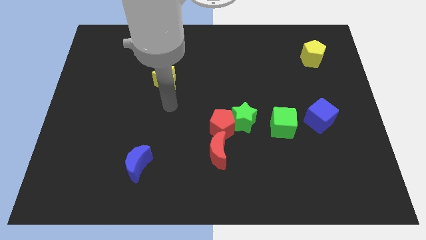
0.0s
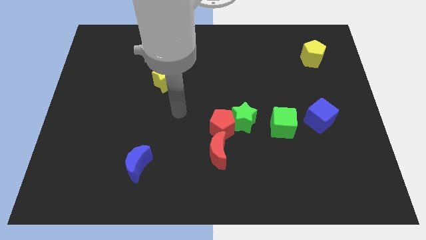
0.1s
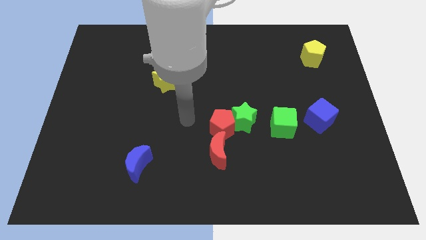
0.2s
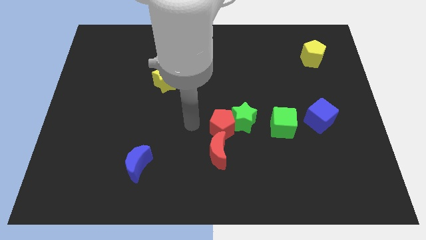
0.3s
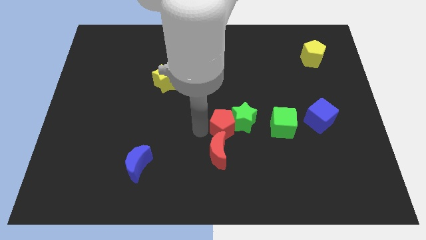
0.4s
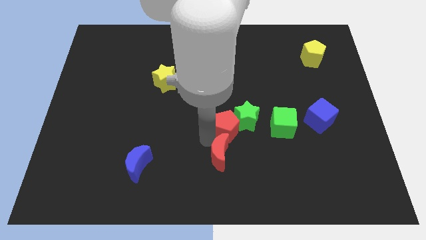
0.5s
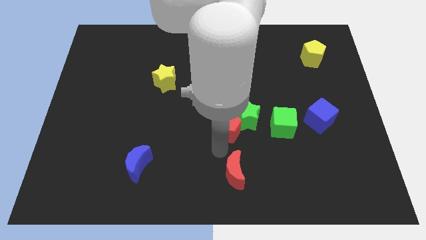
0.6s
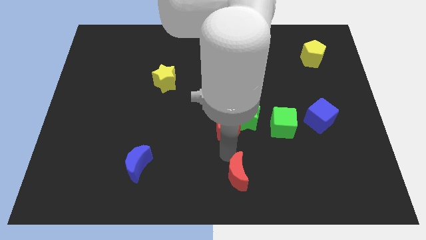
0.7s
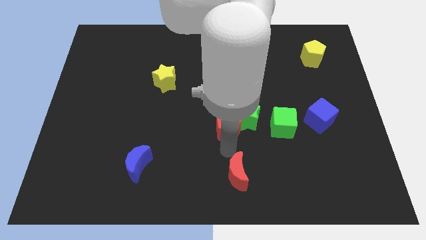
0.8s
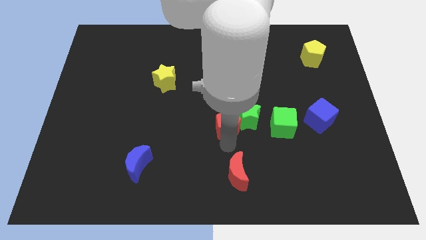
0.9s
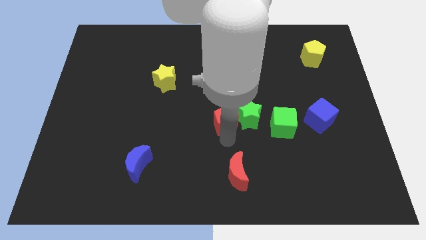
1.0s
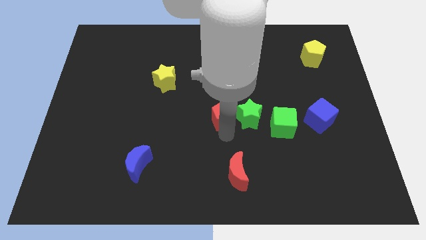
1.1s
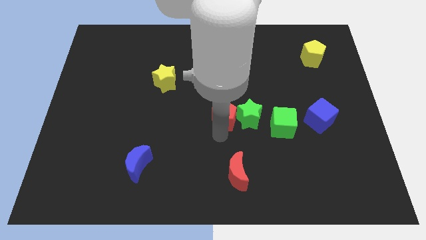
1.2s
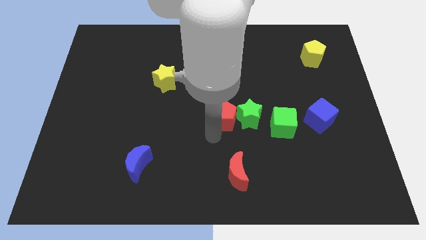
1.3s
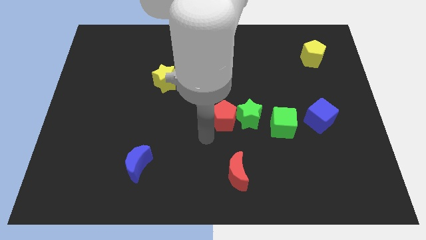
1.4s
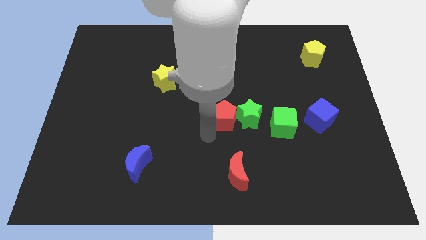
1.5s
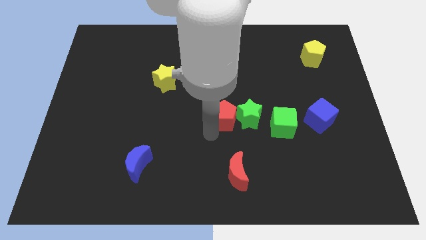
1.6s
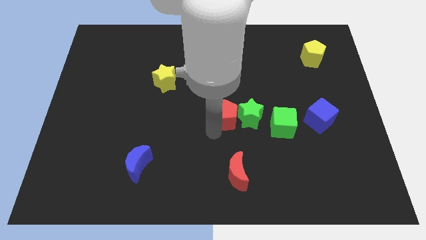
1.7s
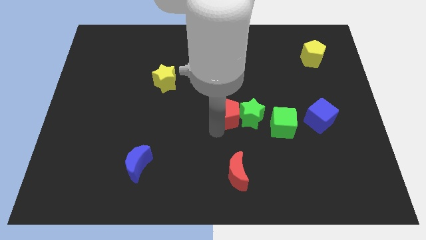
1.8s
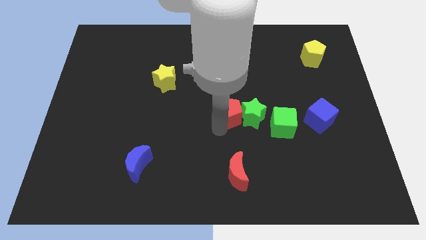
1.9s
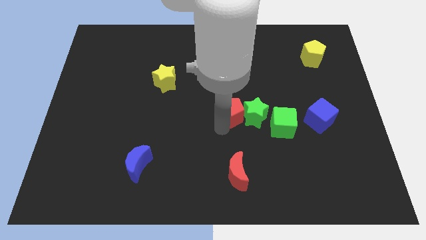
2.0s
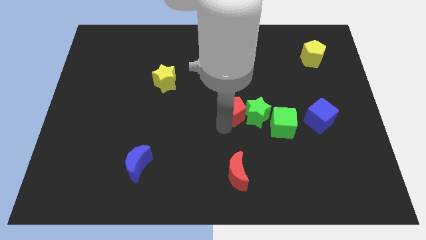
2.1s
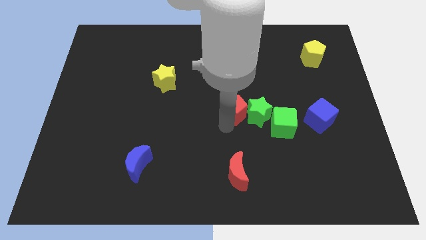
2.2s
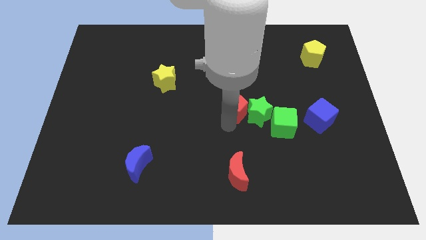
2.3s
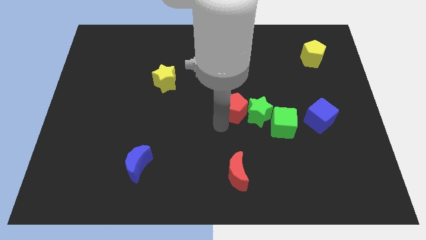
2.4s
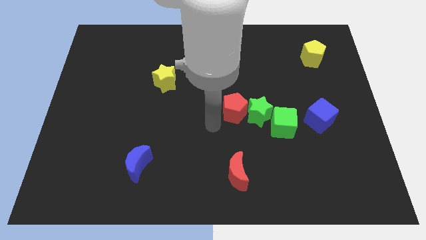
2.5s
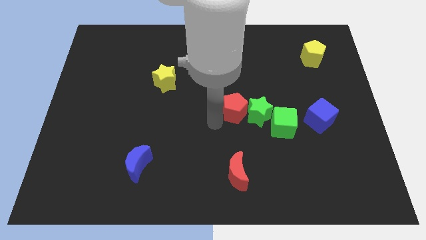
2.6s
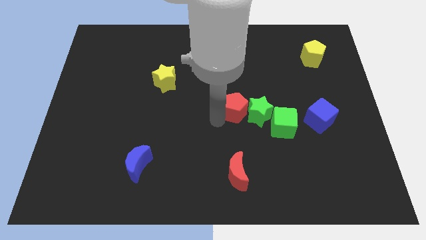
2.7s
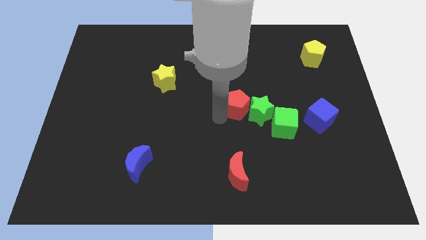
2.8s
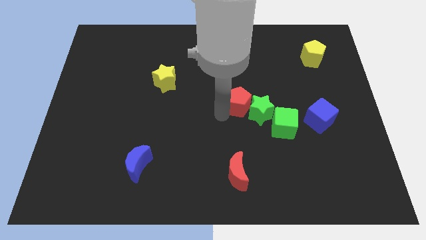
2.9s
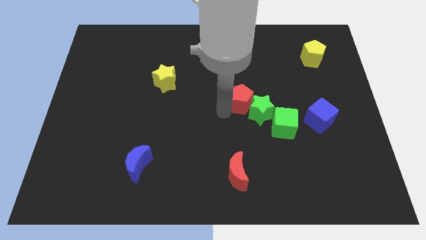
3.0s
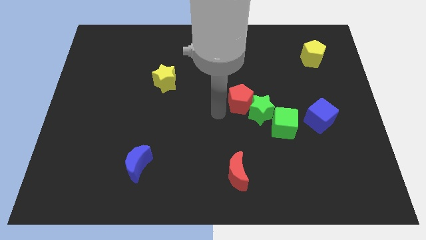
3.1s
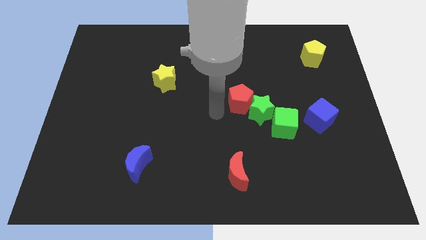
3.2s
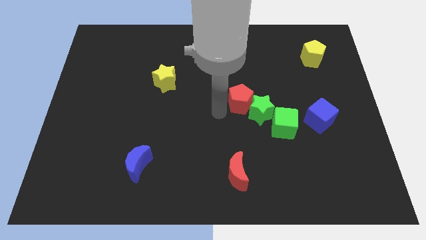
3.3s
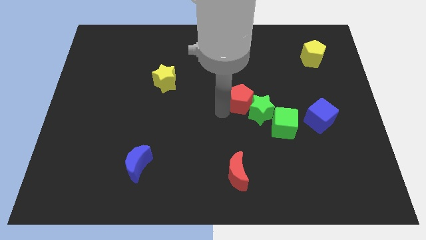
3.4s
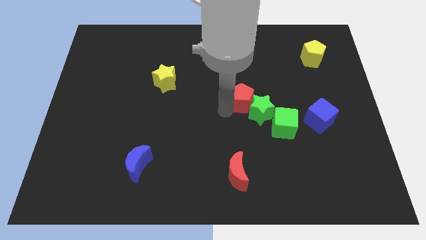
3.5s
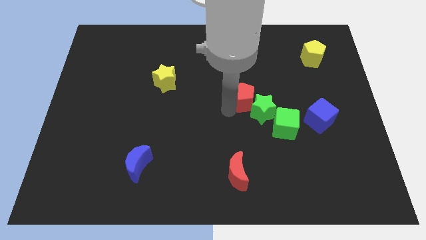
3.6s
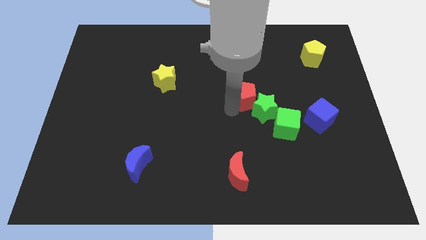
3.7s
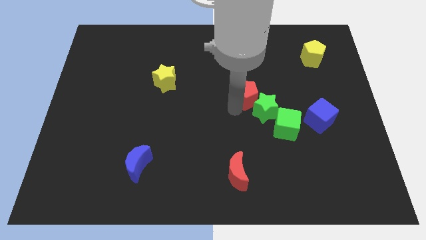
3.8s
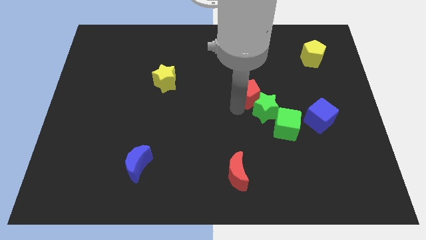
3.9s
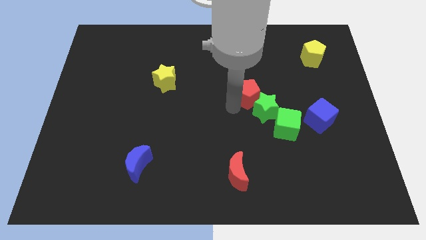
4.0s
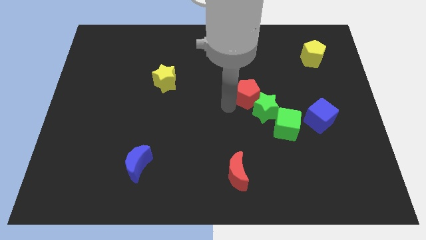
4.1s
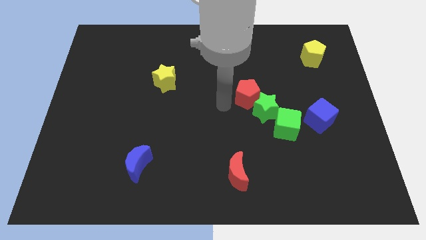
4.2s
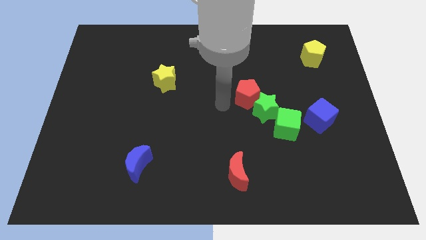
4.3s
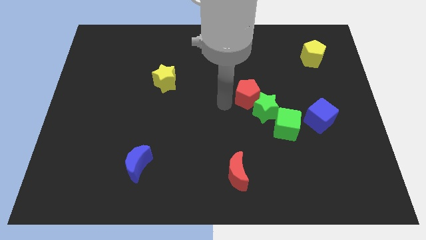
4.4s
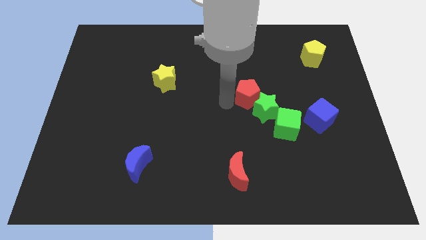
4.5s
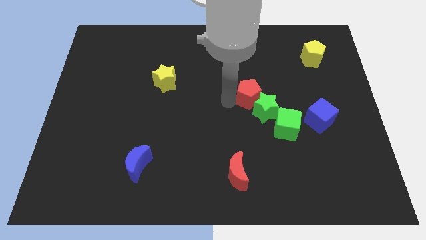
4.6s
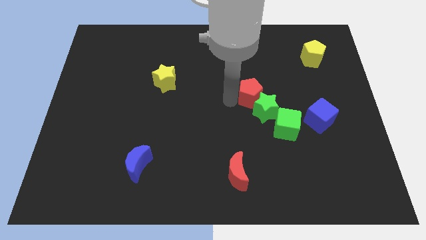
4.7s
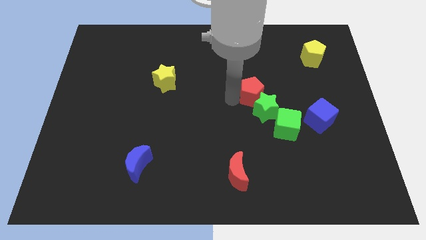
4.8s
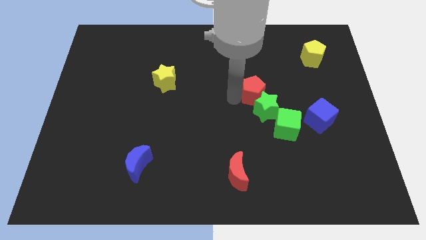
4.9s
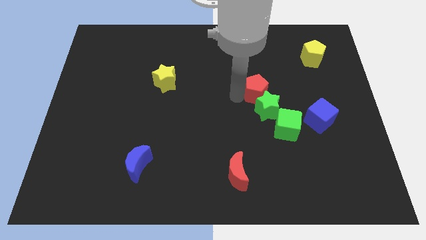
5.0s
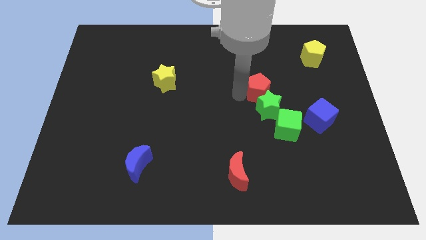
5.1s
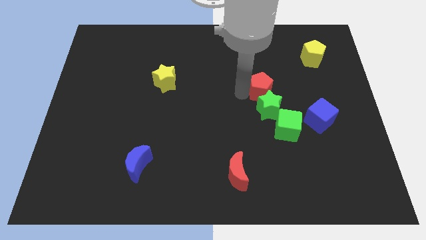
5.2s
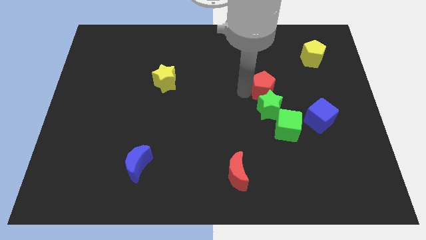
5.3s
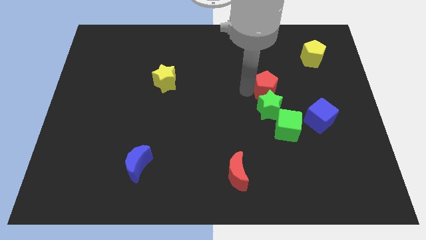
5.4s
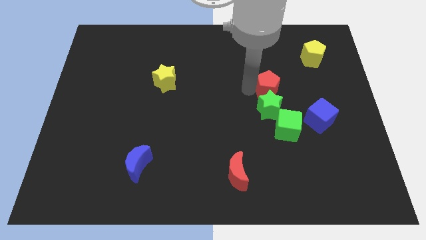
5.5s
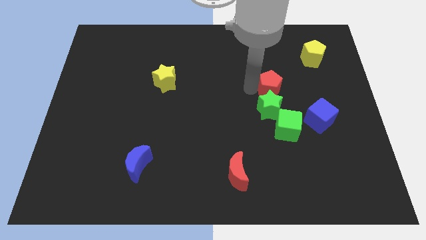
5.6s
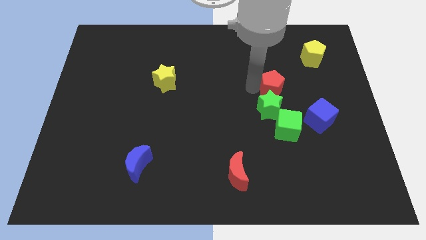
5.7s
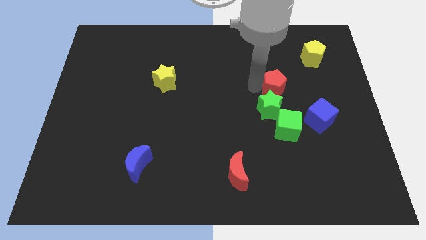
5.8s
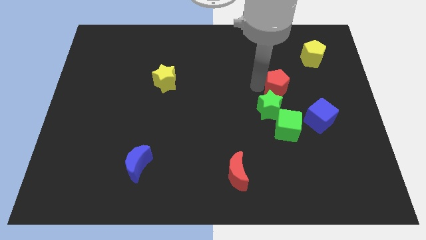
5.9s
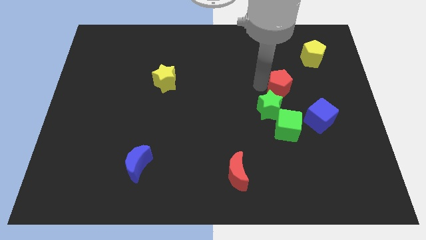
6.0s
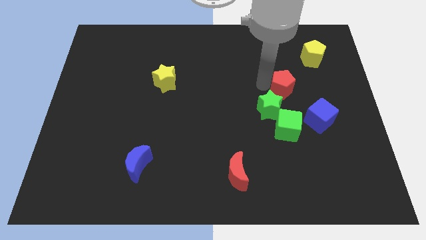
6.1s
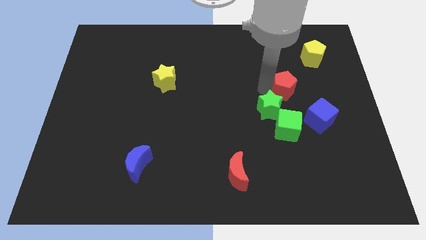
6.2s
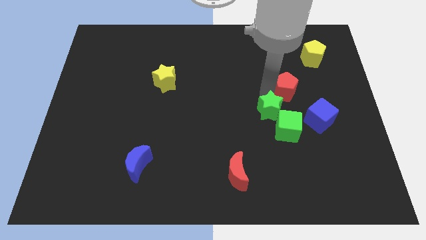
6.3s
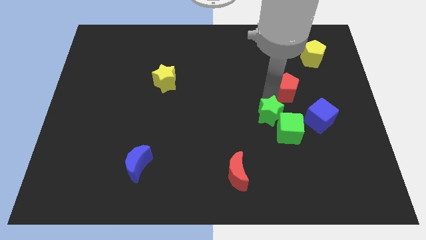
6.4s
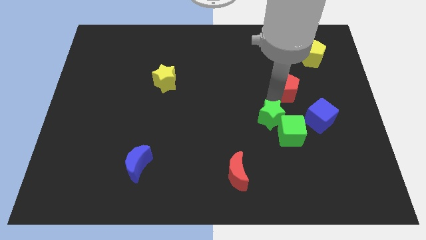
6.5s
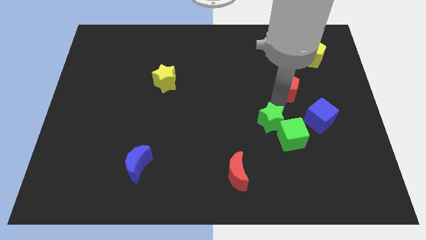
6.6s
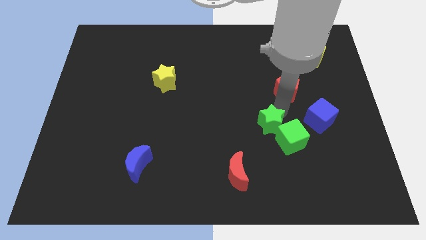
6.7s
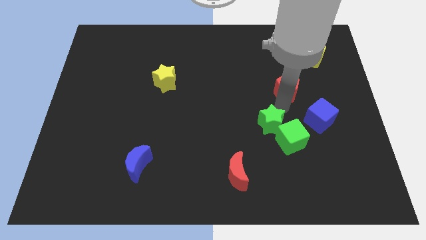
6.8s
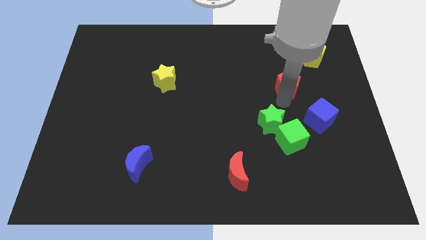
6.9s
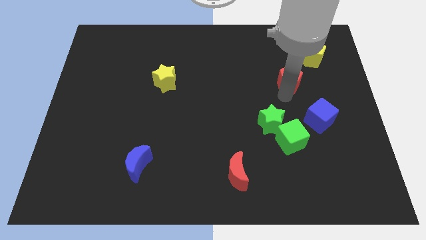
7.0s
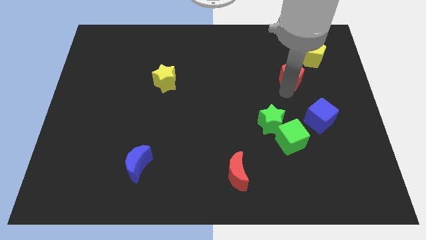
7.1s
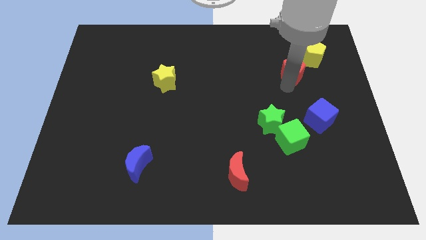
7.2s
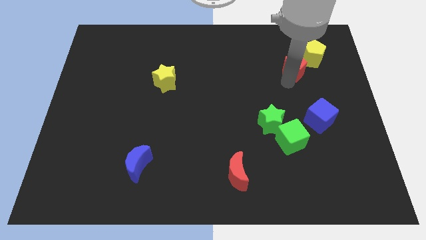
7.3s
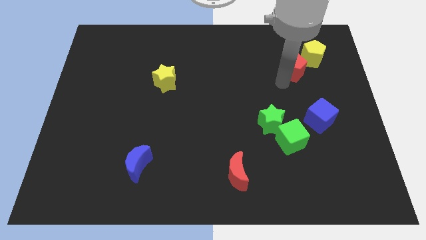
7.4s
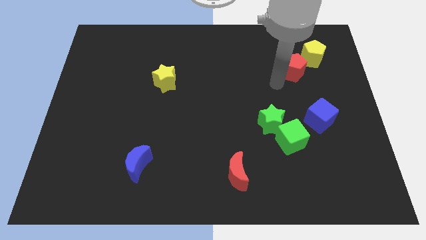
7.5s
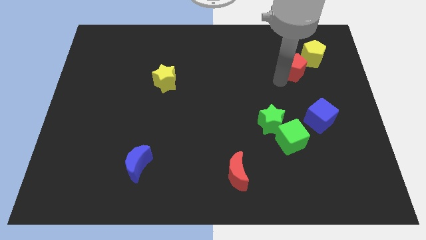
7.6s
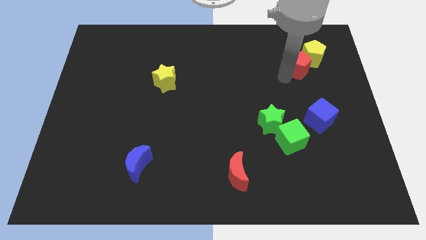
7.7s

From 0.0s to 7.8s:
slide the red pentagon next to the yellow pentagon
